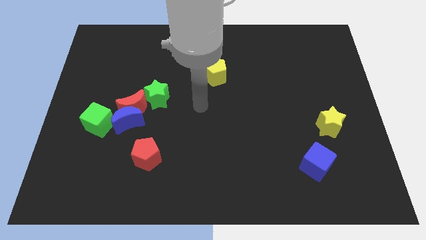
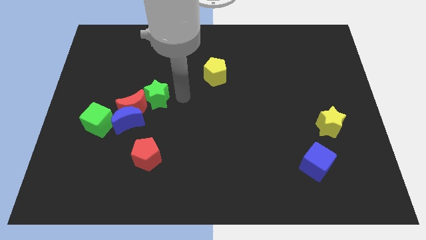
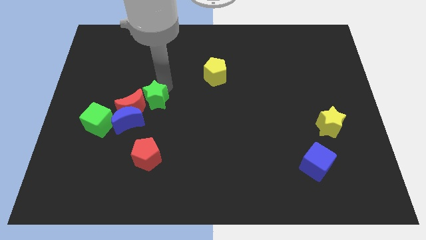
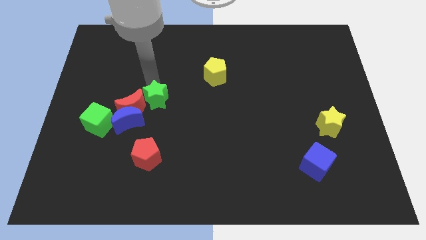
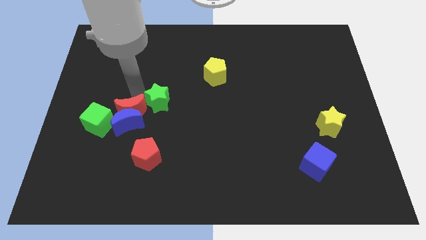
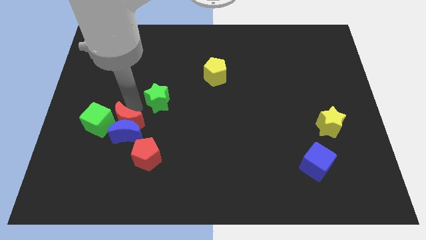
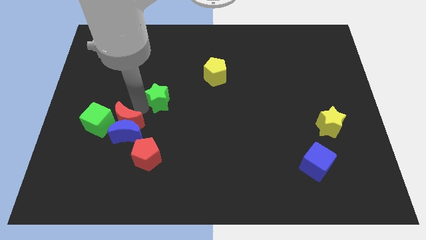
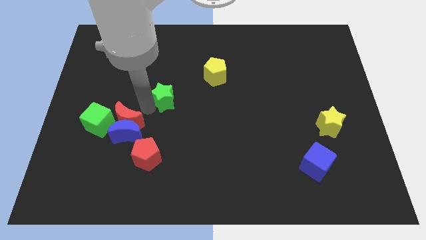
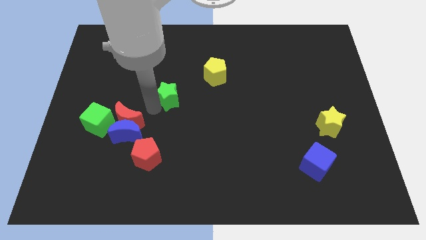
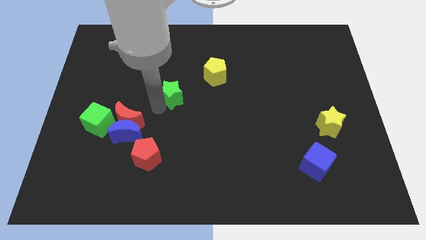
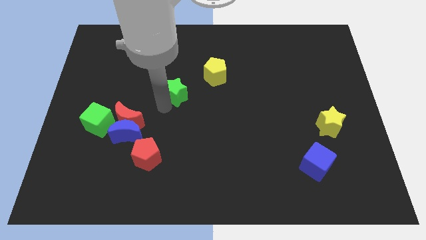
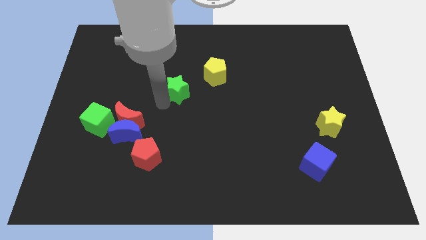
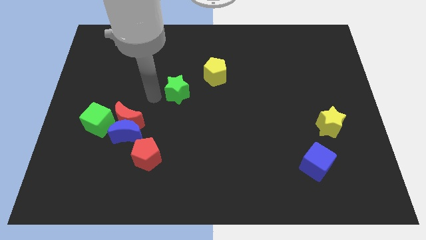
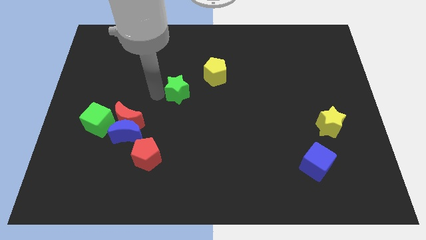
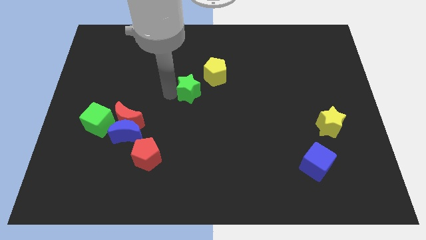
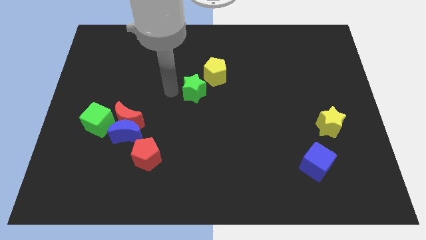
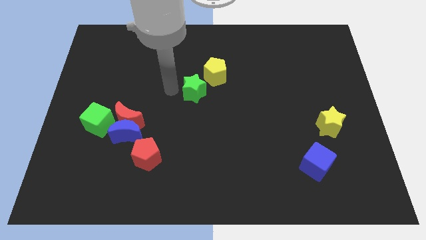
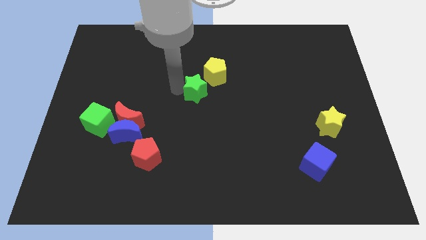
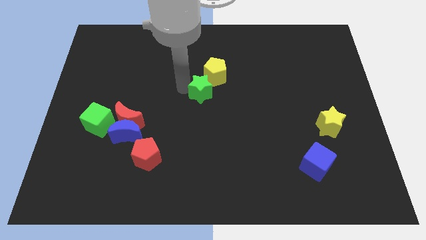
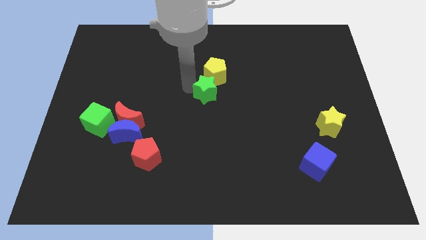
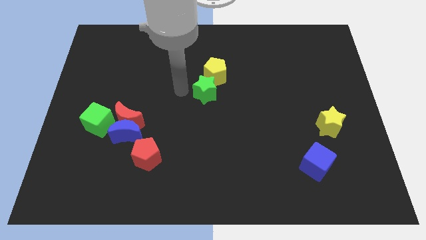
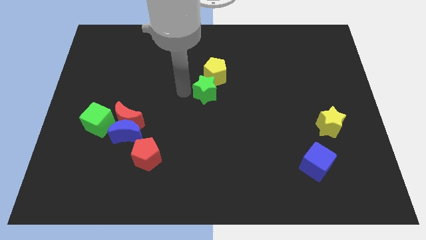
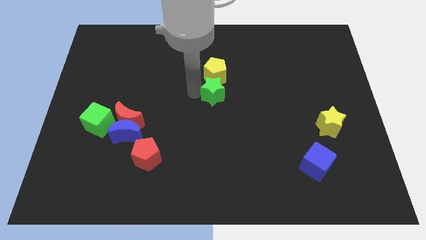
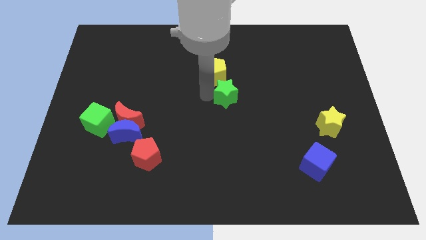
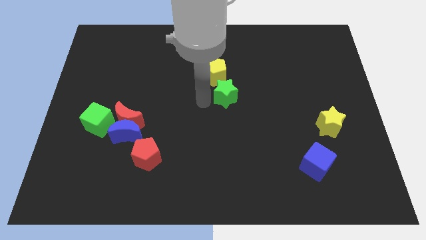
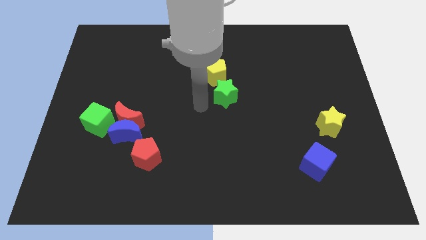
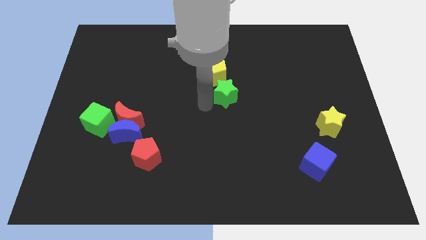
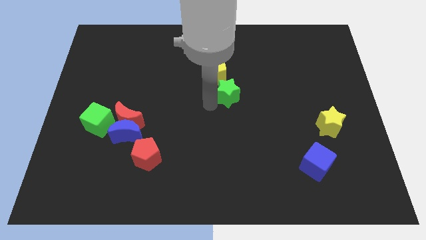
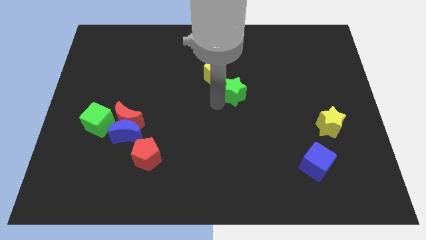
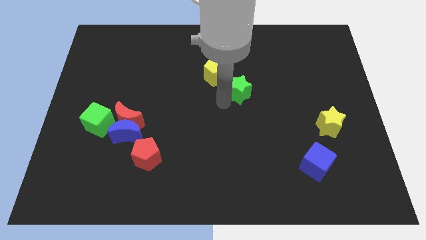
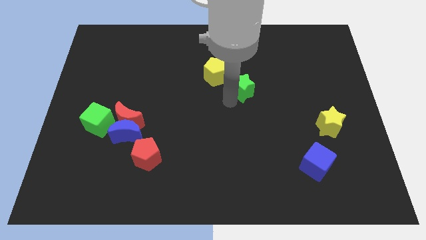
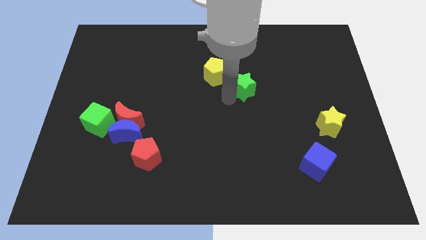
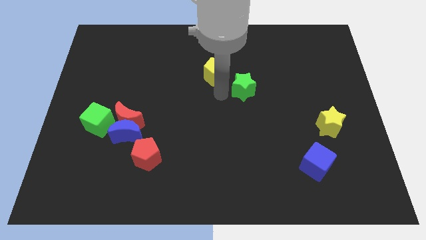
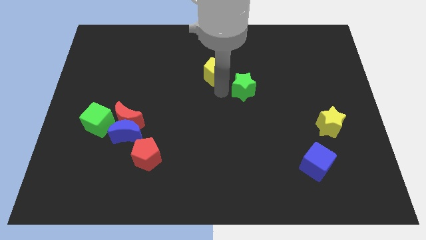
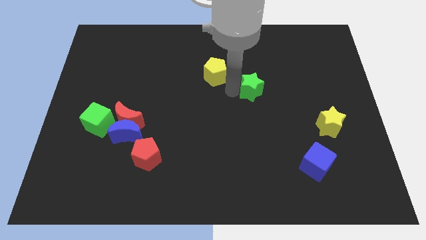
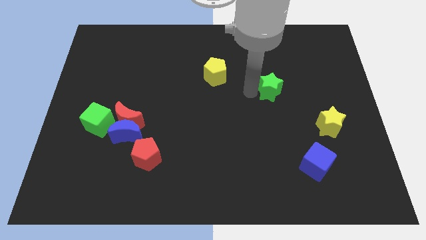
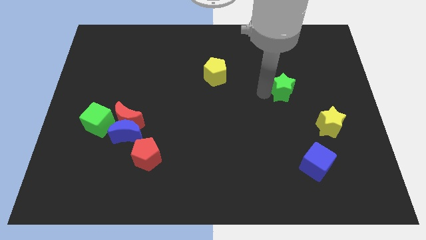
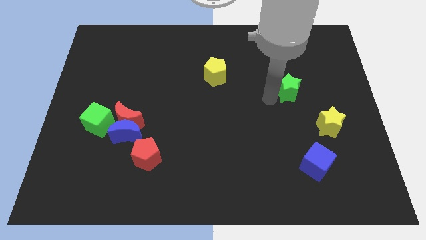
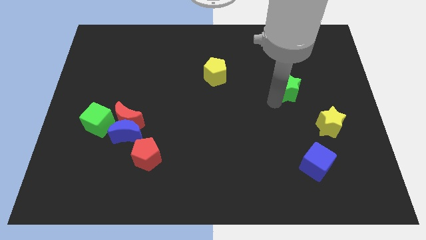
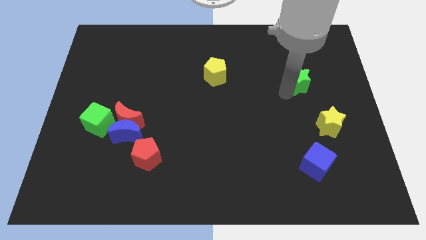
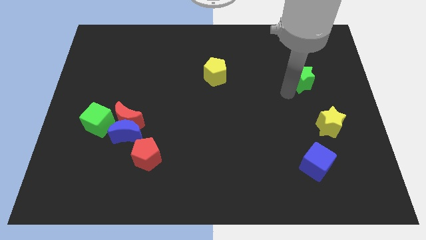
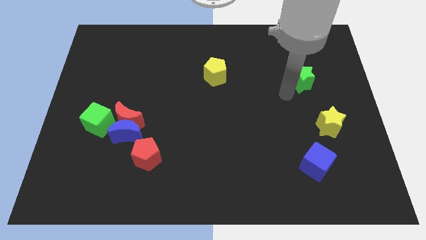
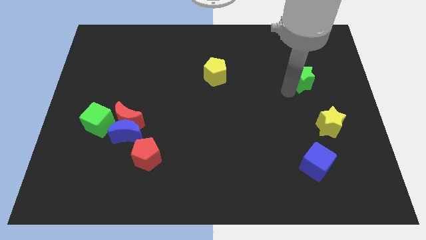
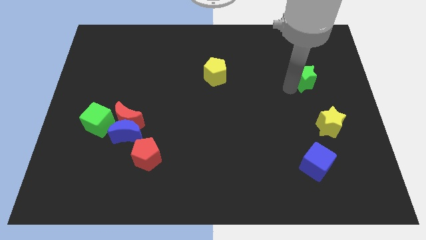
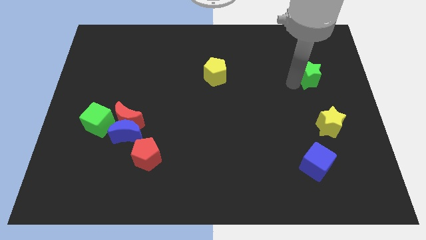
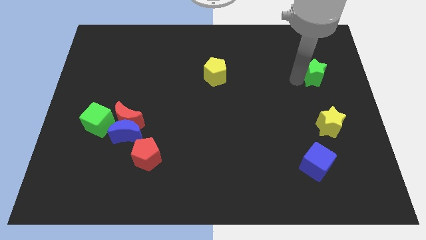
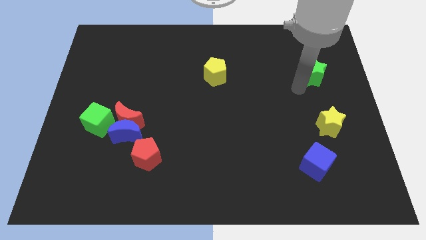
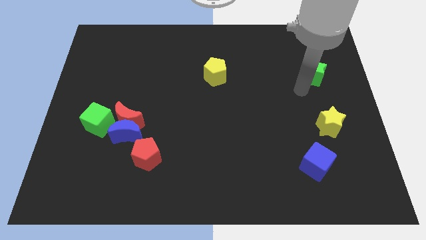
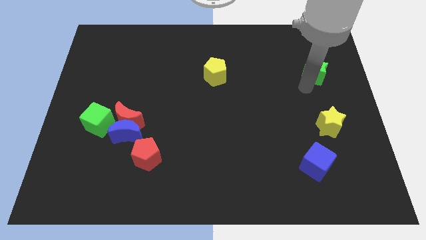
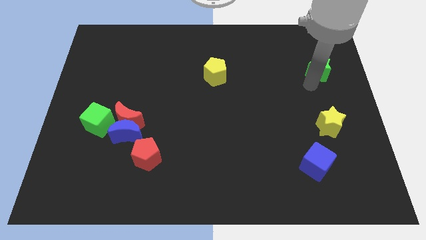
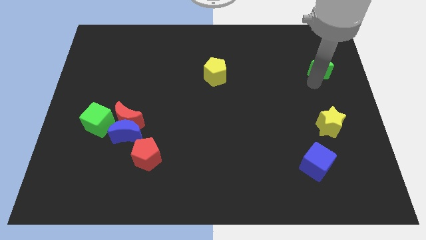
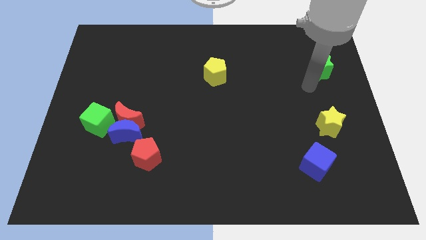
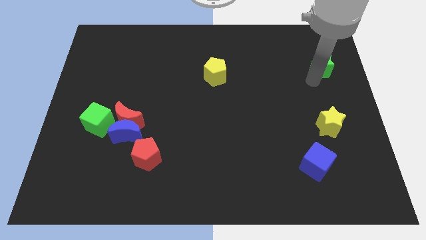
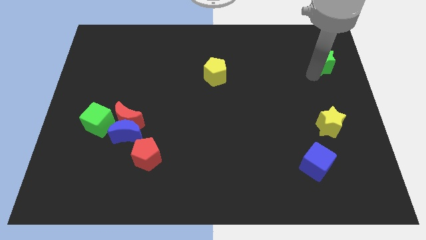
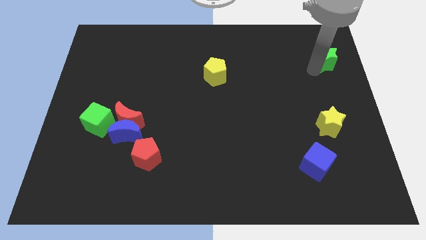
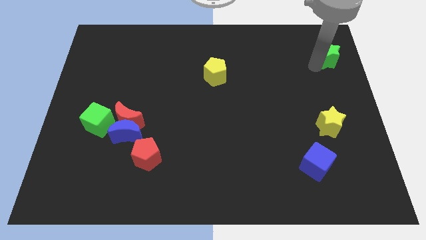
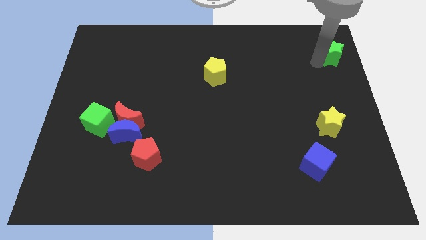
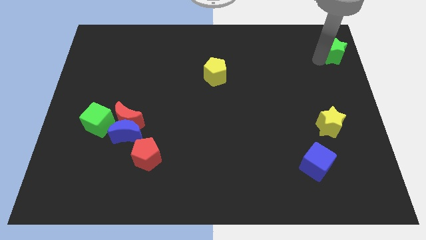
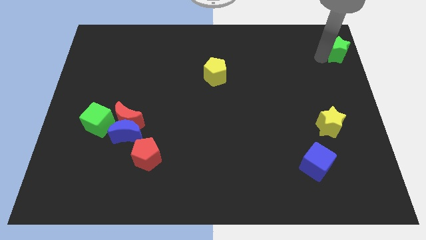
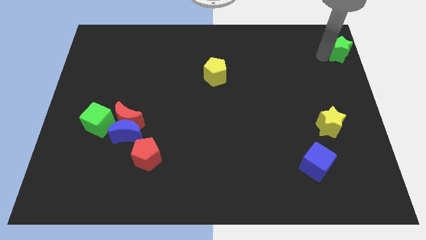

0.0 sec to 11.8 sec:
move the green star to the top right of the board
